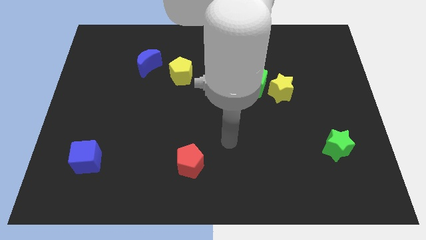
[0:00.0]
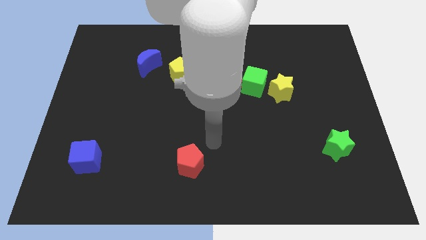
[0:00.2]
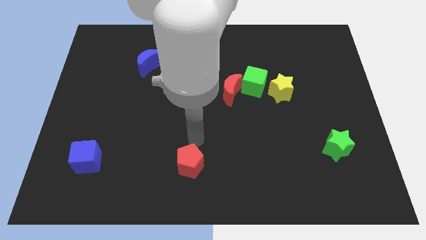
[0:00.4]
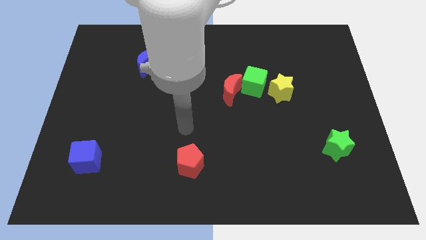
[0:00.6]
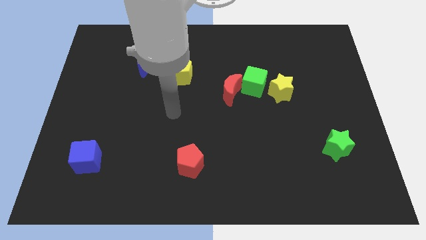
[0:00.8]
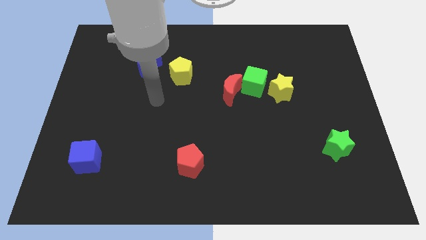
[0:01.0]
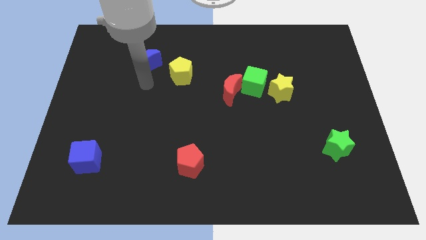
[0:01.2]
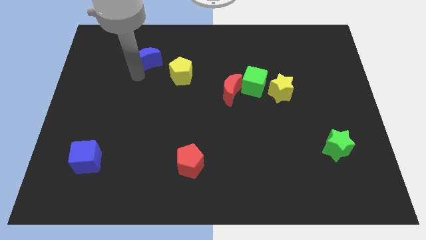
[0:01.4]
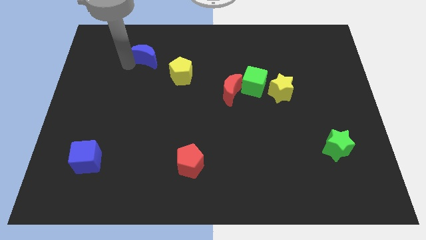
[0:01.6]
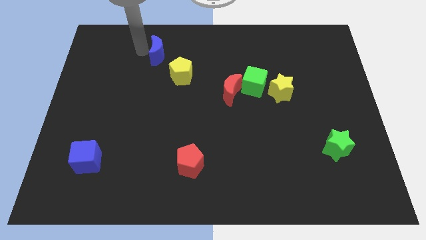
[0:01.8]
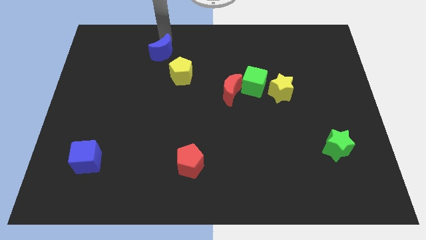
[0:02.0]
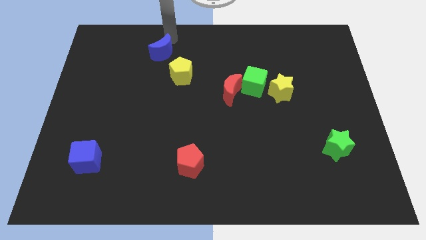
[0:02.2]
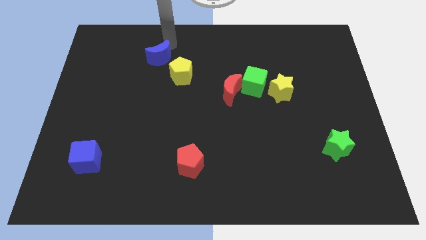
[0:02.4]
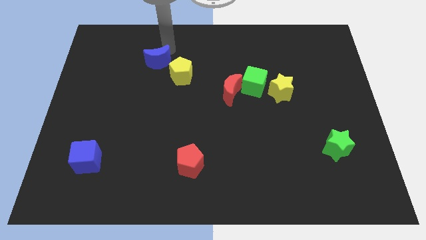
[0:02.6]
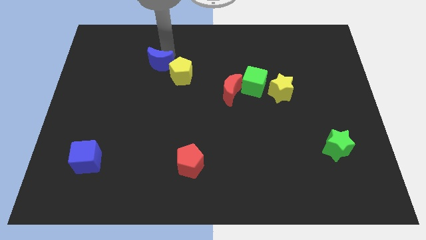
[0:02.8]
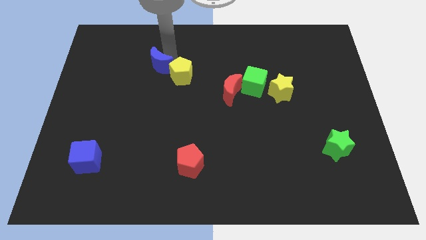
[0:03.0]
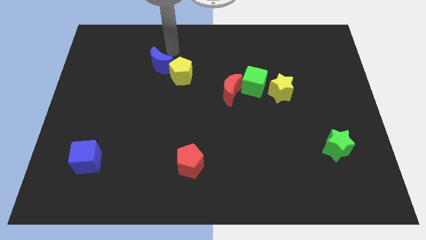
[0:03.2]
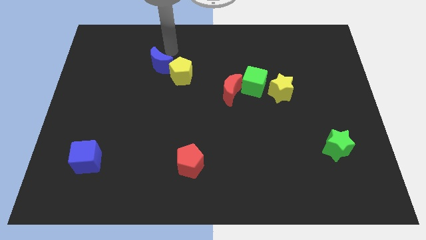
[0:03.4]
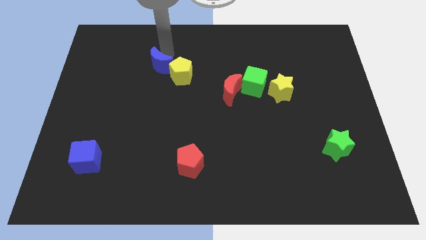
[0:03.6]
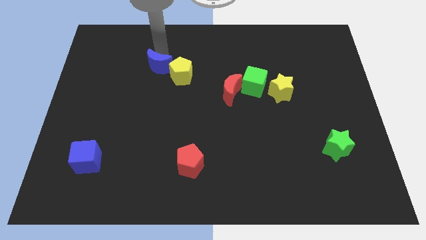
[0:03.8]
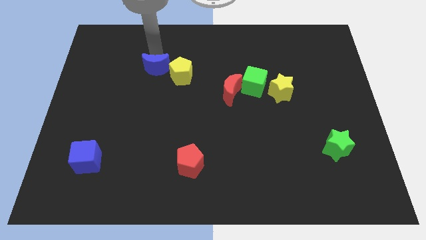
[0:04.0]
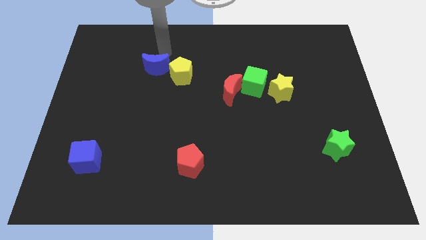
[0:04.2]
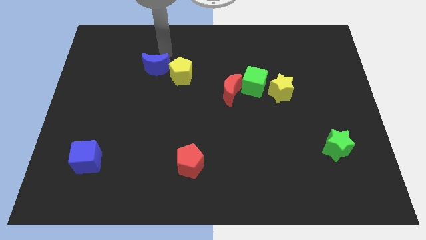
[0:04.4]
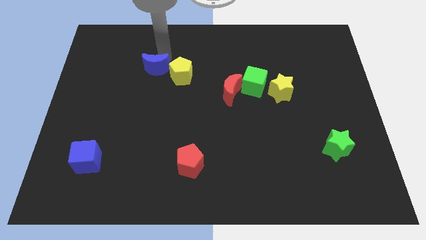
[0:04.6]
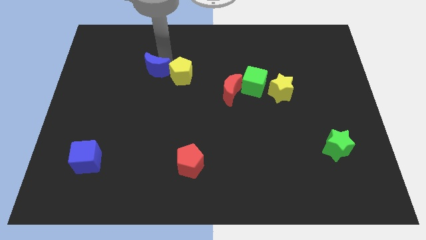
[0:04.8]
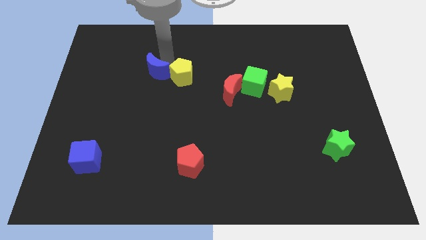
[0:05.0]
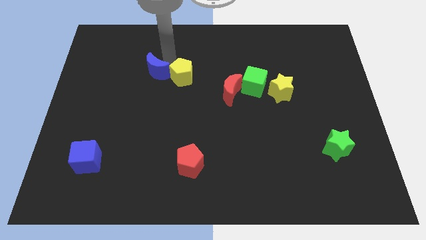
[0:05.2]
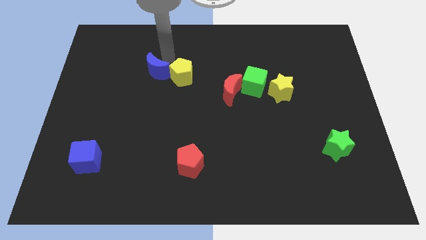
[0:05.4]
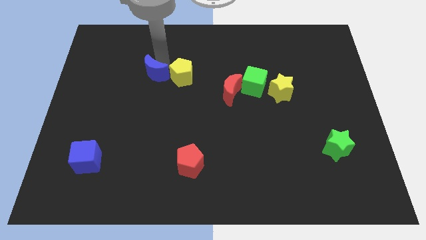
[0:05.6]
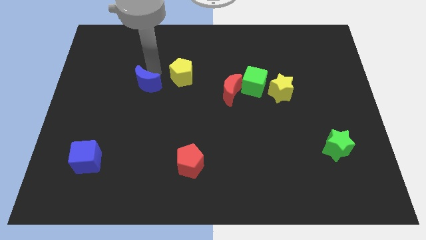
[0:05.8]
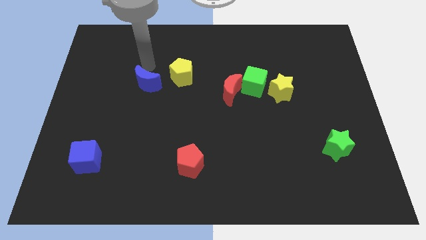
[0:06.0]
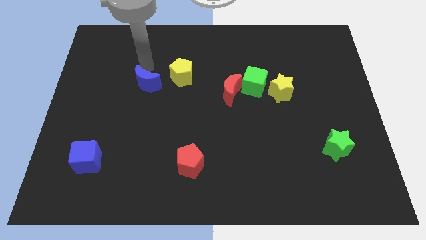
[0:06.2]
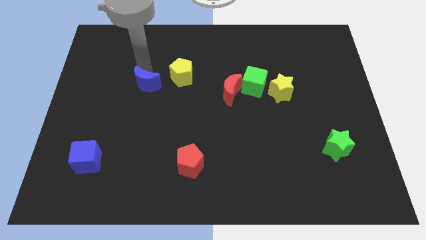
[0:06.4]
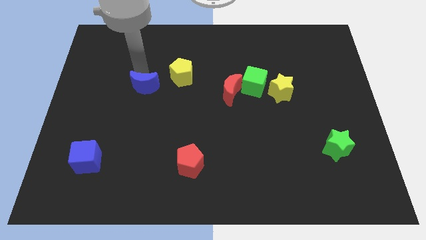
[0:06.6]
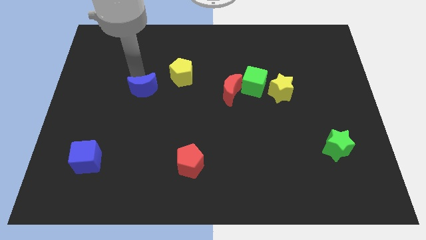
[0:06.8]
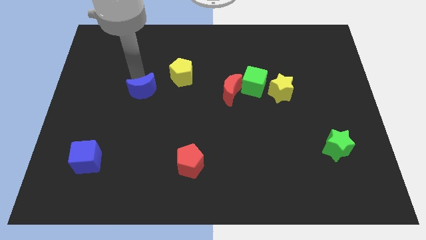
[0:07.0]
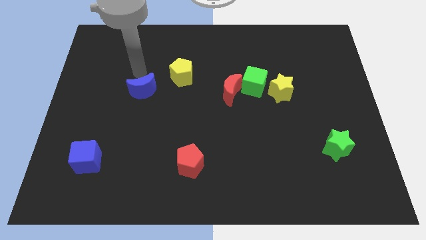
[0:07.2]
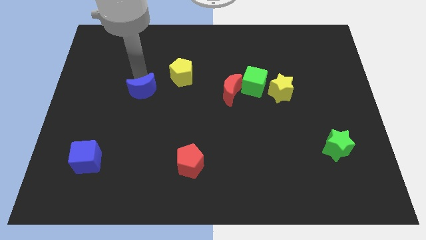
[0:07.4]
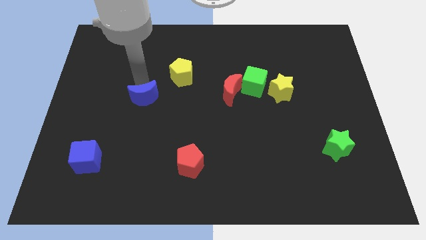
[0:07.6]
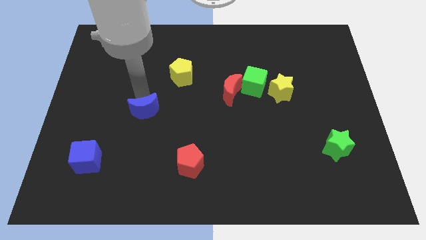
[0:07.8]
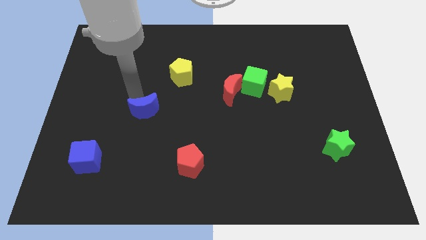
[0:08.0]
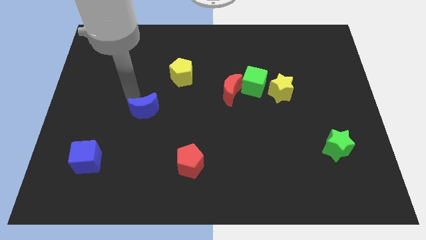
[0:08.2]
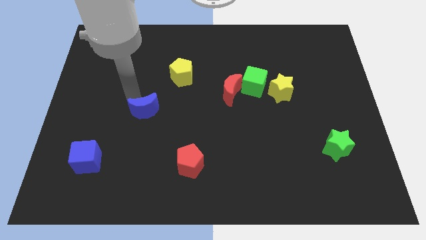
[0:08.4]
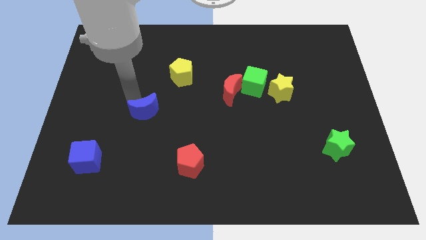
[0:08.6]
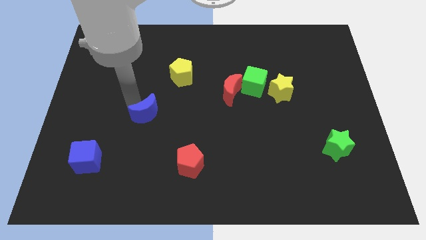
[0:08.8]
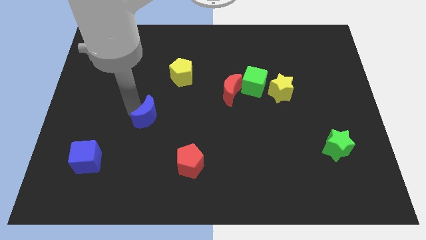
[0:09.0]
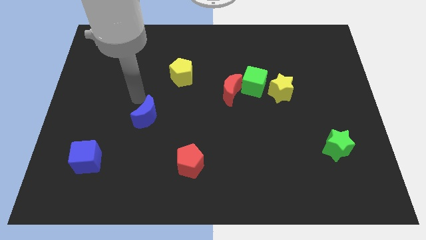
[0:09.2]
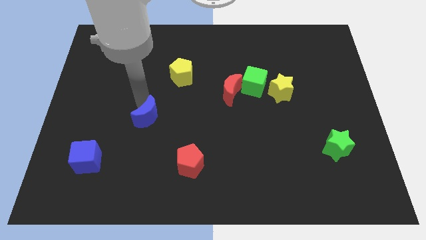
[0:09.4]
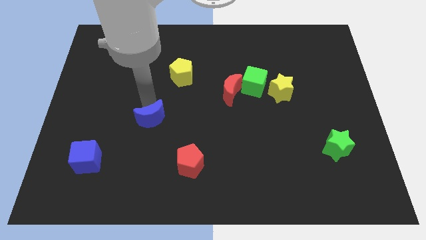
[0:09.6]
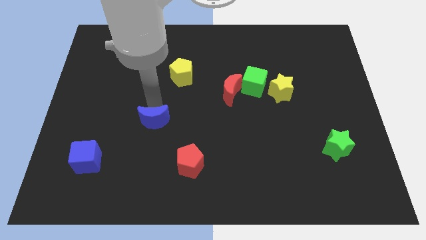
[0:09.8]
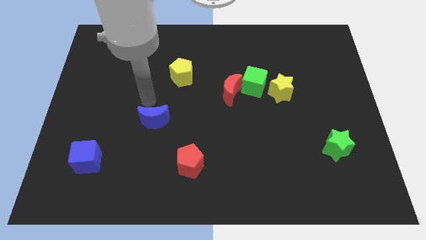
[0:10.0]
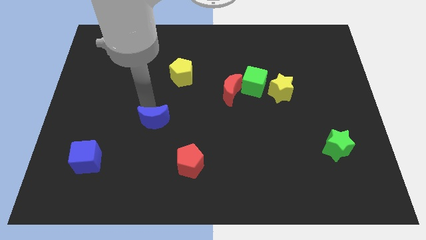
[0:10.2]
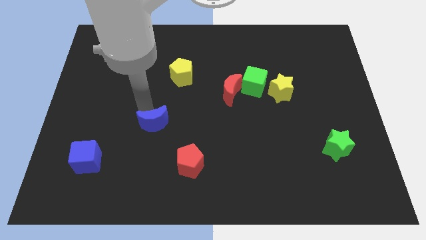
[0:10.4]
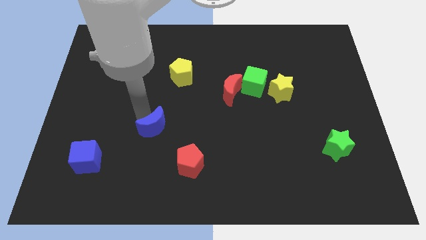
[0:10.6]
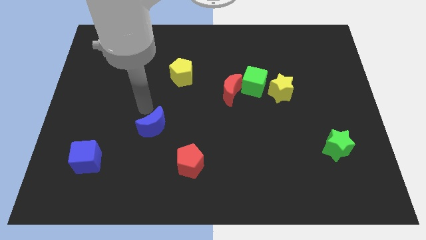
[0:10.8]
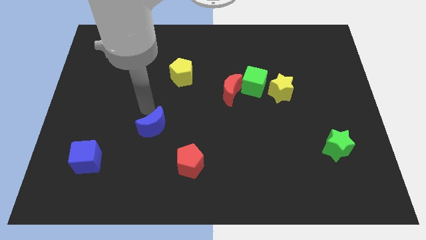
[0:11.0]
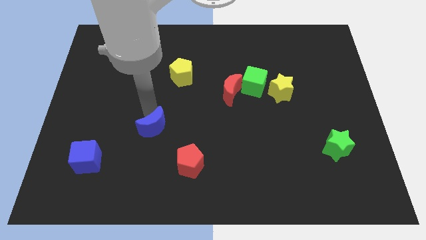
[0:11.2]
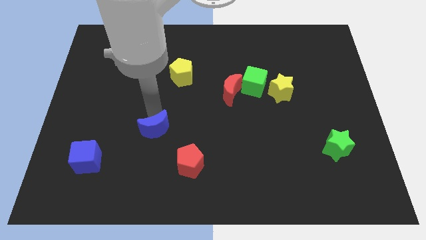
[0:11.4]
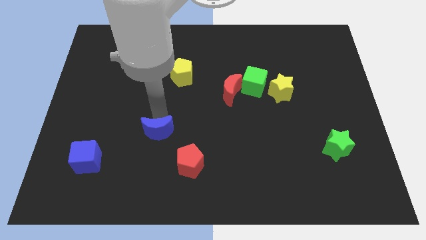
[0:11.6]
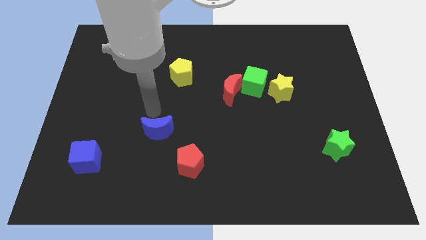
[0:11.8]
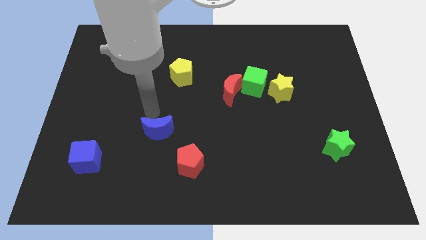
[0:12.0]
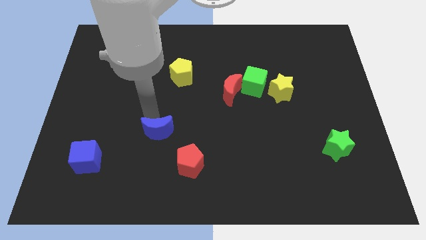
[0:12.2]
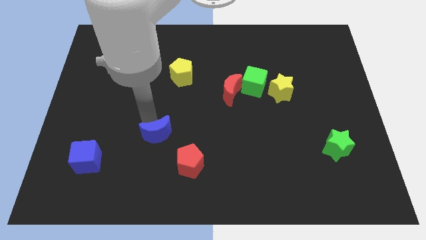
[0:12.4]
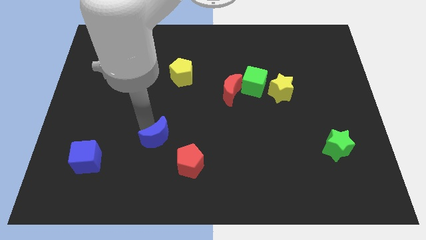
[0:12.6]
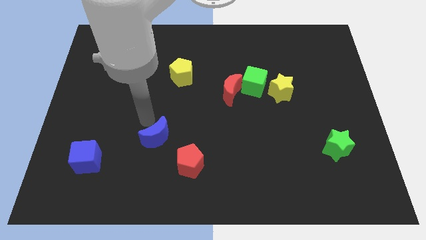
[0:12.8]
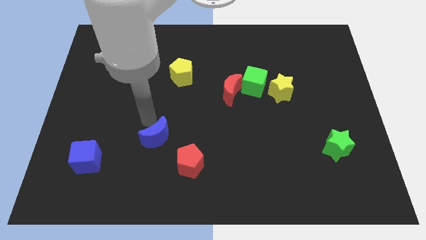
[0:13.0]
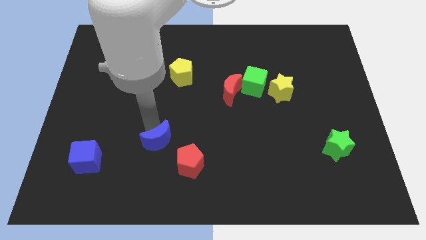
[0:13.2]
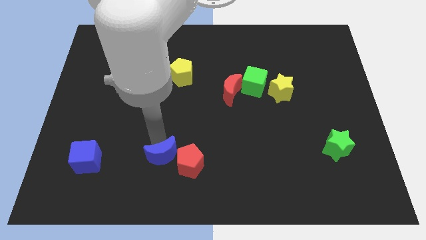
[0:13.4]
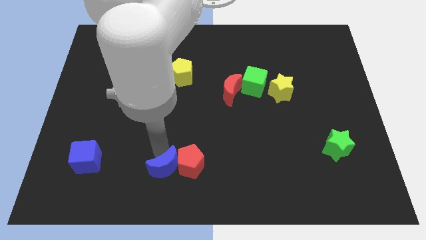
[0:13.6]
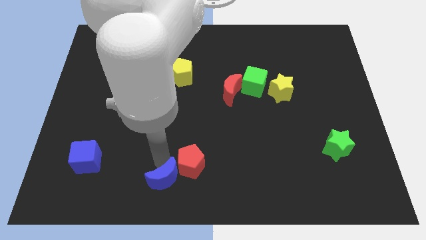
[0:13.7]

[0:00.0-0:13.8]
put the blue moon to the bottom
